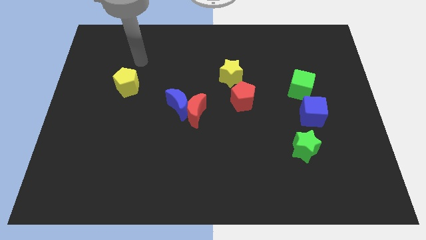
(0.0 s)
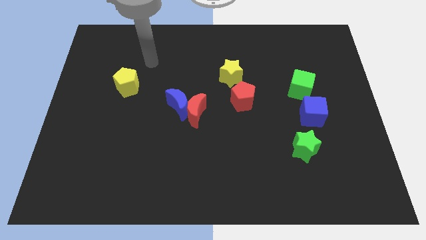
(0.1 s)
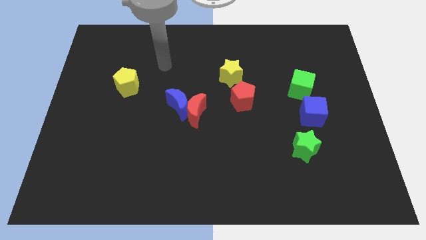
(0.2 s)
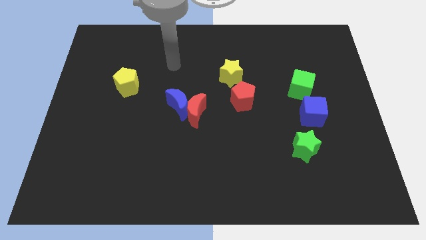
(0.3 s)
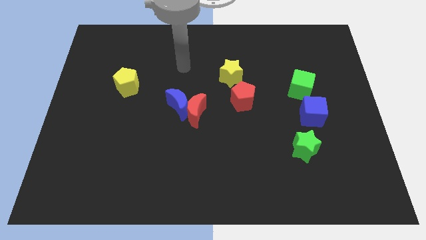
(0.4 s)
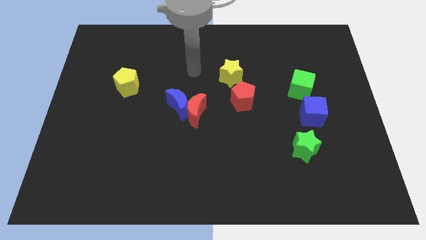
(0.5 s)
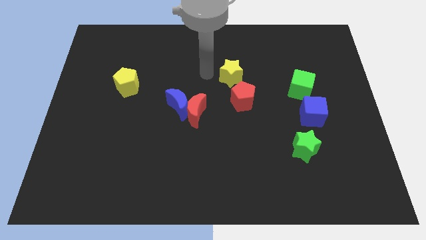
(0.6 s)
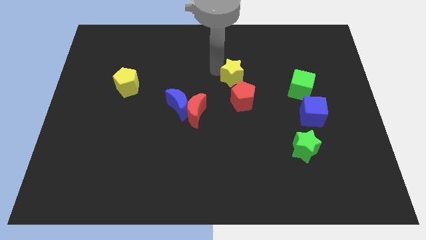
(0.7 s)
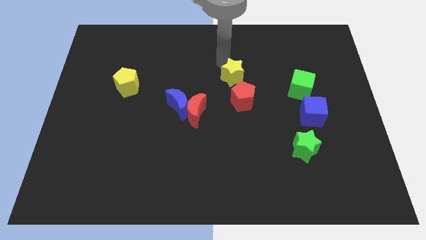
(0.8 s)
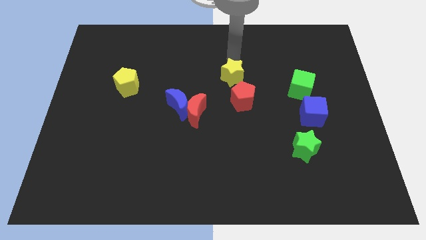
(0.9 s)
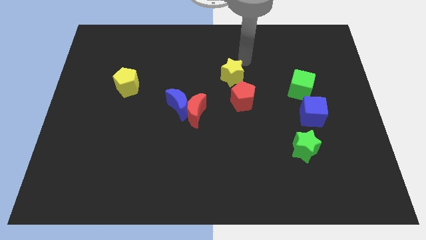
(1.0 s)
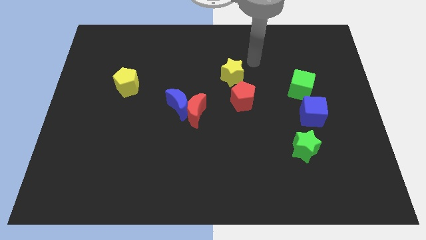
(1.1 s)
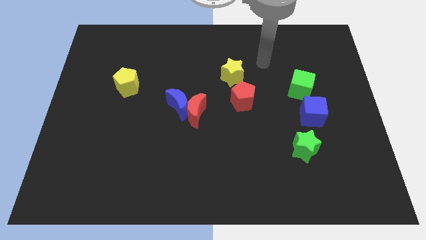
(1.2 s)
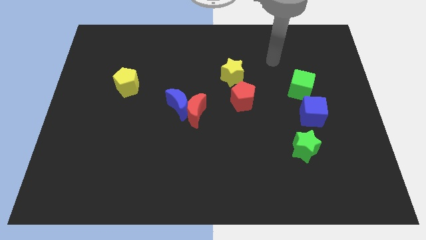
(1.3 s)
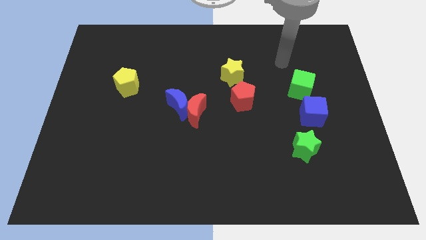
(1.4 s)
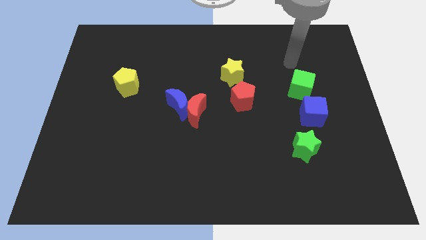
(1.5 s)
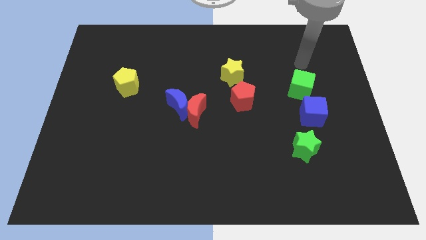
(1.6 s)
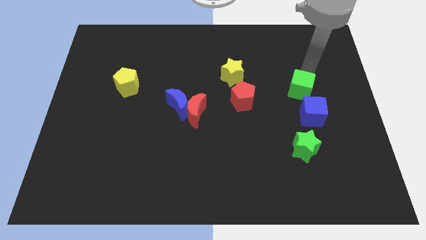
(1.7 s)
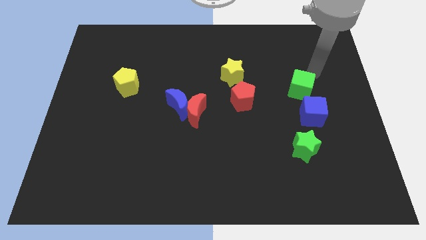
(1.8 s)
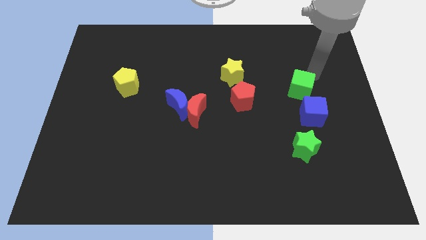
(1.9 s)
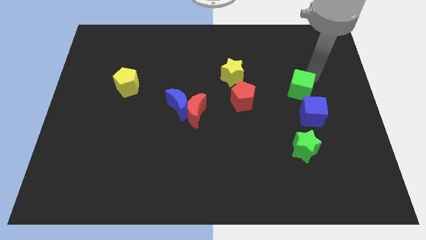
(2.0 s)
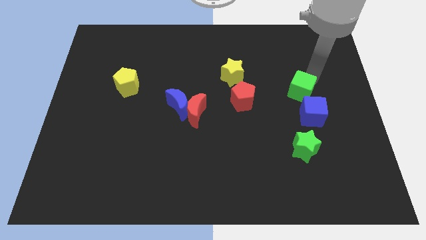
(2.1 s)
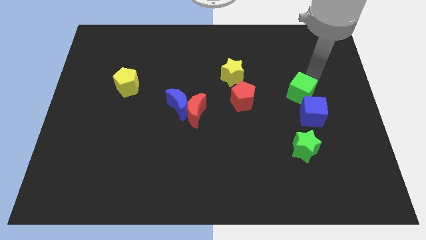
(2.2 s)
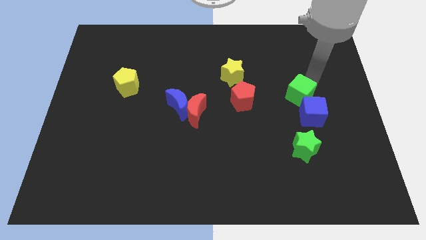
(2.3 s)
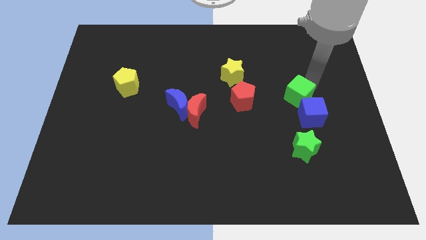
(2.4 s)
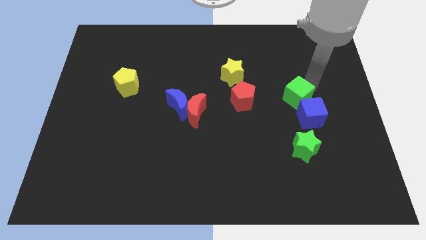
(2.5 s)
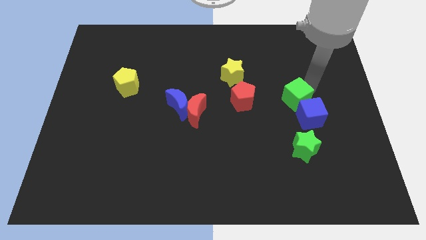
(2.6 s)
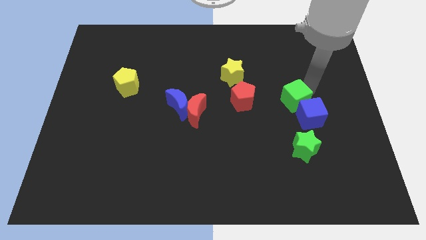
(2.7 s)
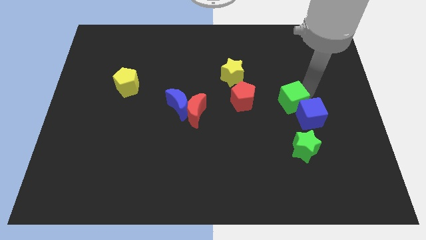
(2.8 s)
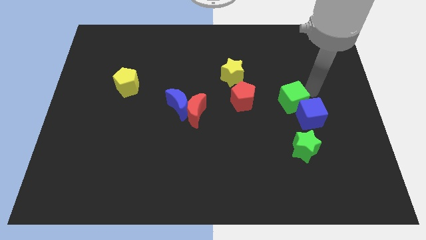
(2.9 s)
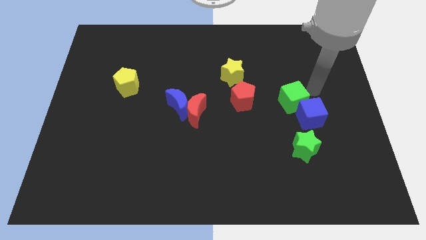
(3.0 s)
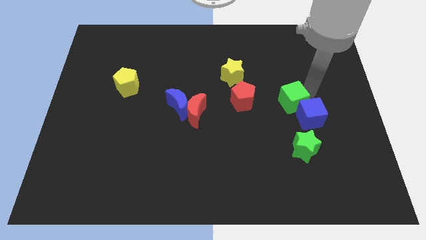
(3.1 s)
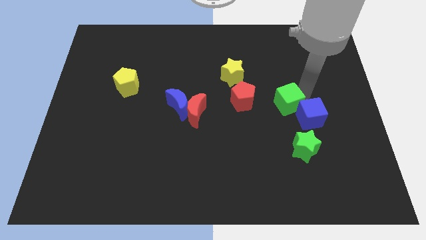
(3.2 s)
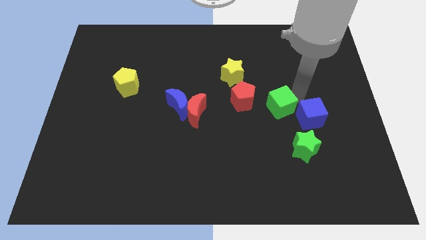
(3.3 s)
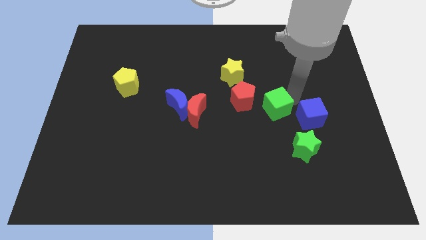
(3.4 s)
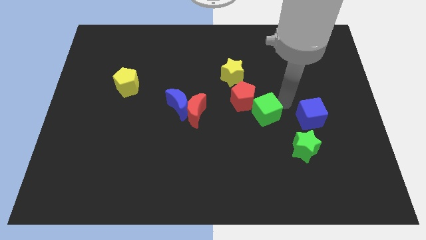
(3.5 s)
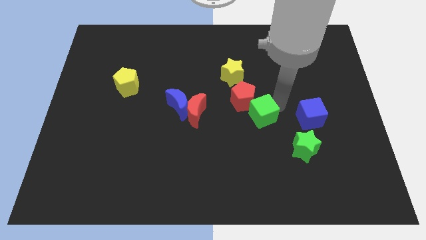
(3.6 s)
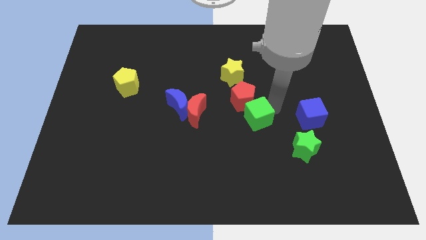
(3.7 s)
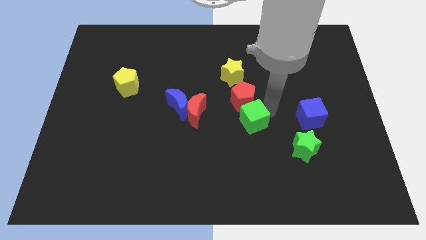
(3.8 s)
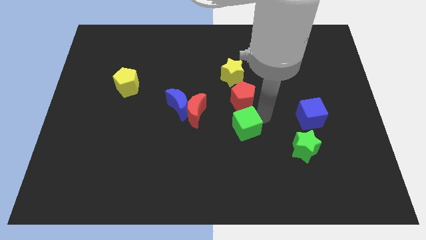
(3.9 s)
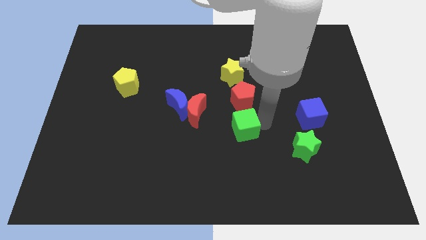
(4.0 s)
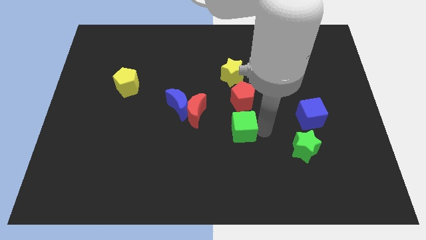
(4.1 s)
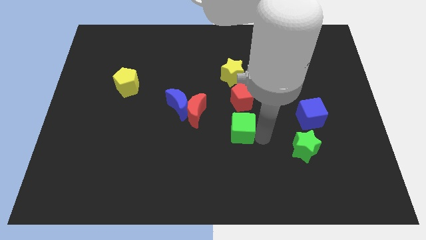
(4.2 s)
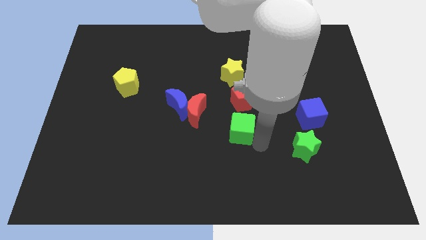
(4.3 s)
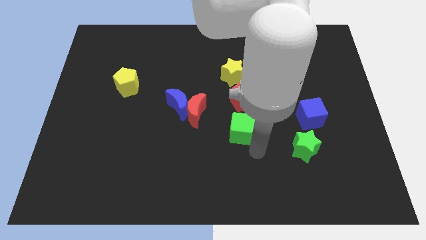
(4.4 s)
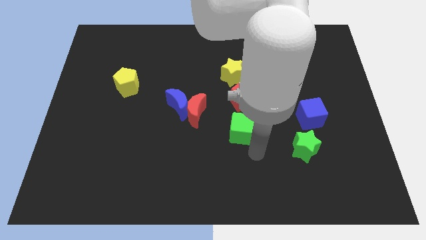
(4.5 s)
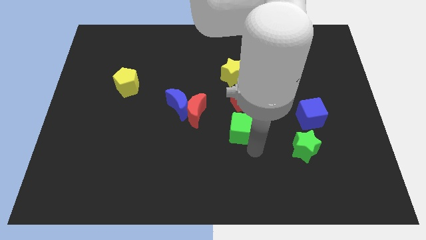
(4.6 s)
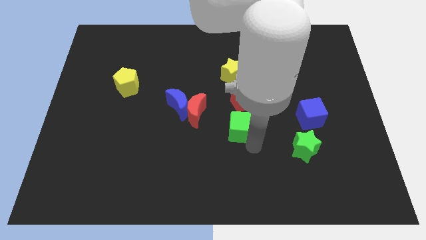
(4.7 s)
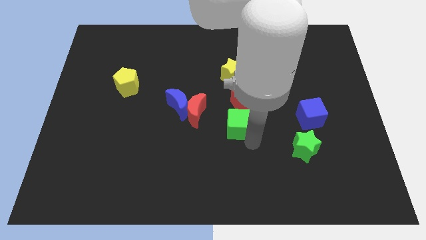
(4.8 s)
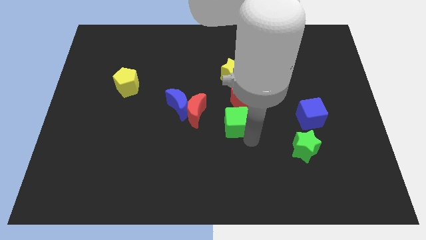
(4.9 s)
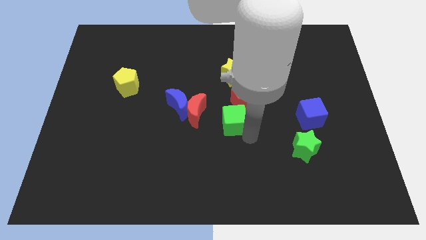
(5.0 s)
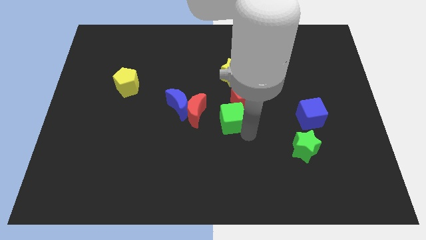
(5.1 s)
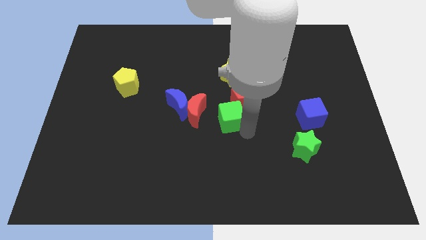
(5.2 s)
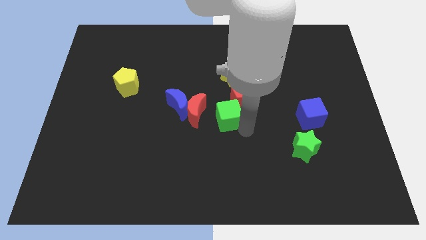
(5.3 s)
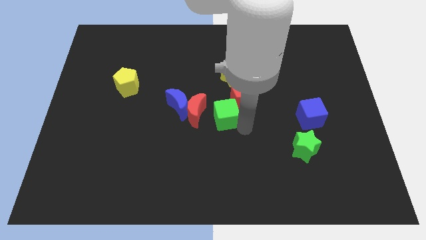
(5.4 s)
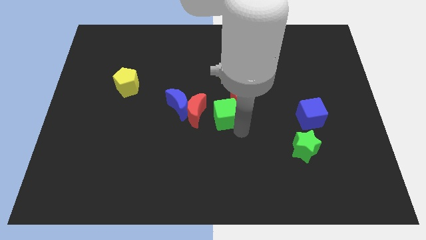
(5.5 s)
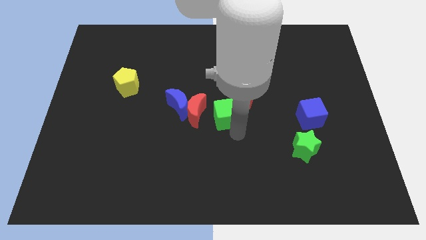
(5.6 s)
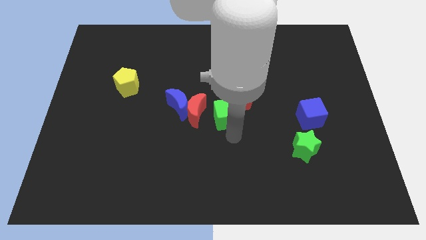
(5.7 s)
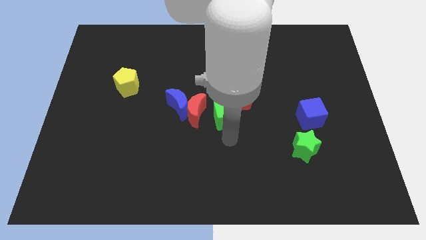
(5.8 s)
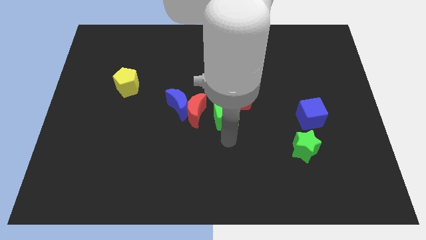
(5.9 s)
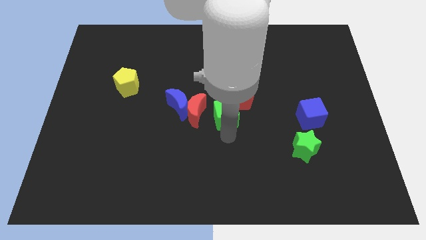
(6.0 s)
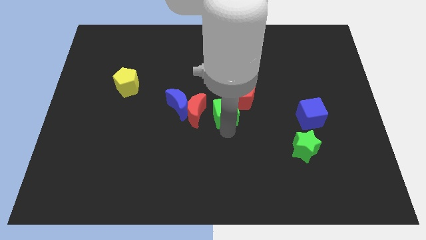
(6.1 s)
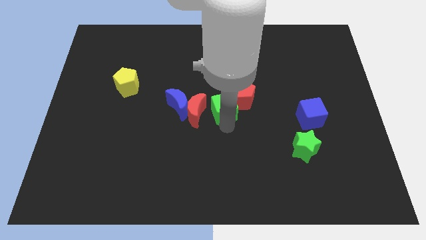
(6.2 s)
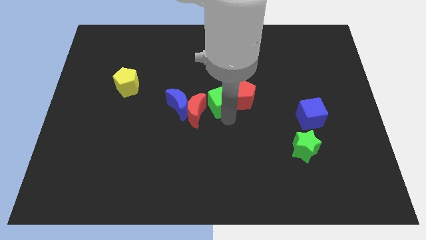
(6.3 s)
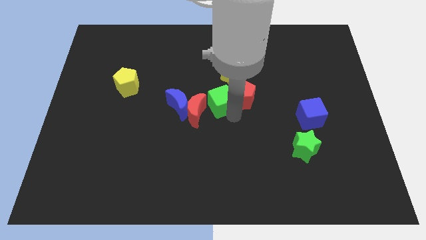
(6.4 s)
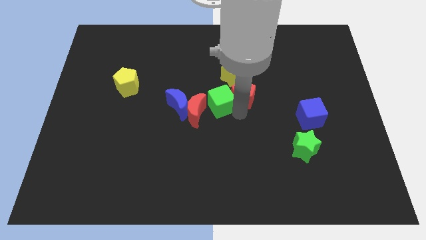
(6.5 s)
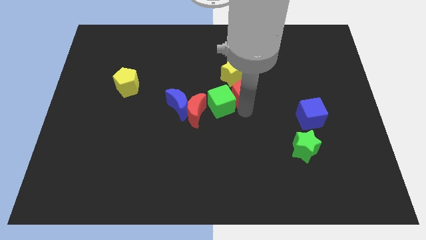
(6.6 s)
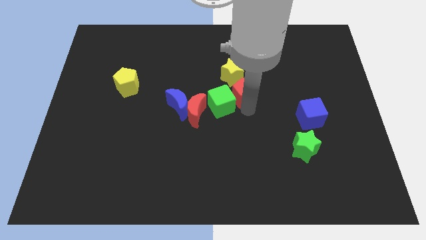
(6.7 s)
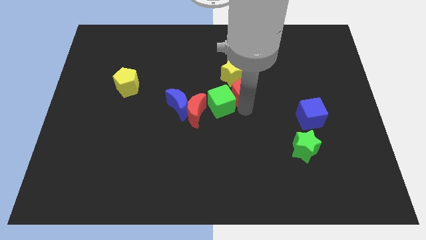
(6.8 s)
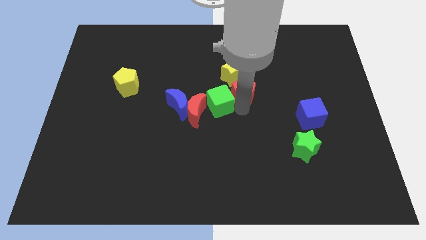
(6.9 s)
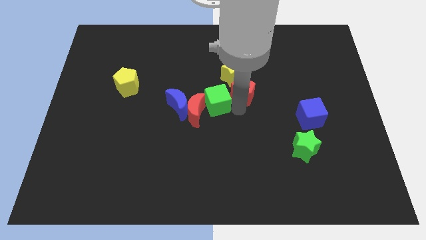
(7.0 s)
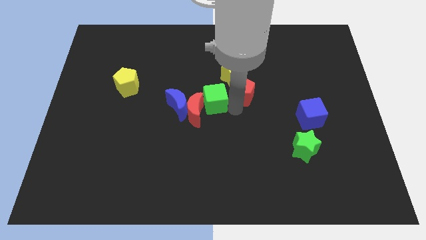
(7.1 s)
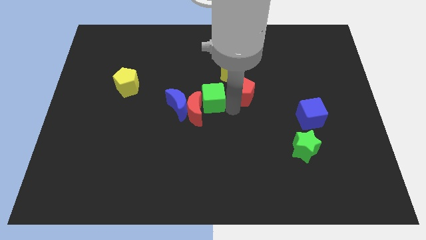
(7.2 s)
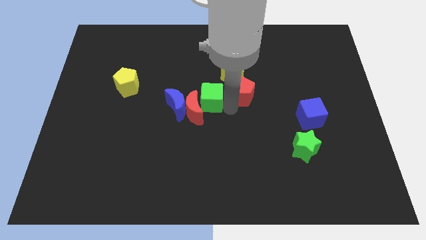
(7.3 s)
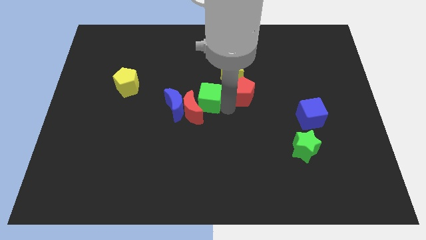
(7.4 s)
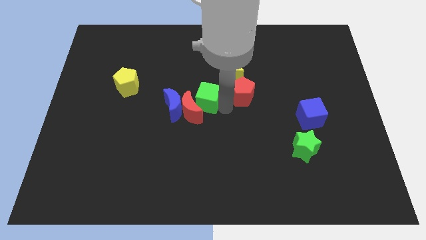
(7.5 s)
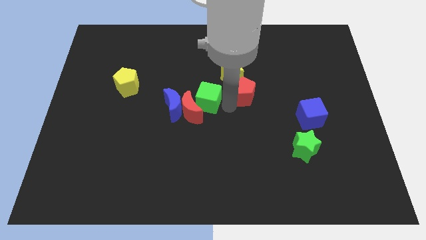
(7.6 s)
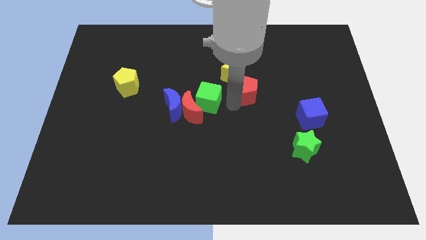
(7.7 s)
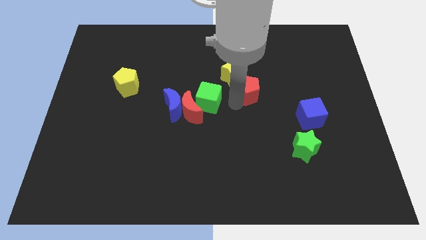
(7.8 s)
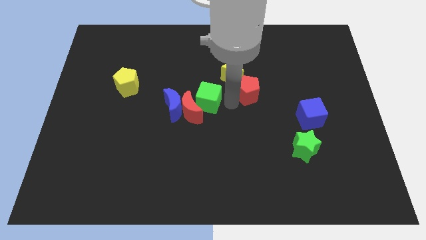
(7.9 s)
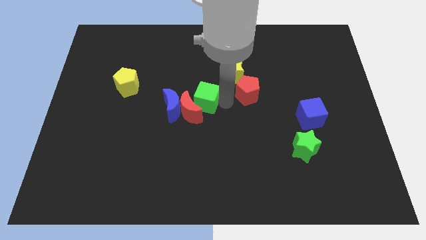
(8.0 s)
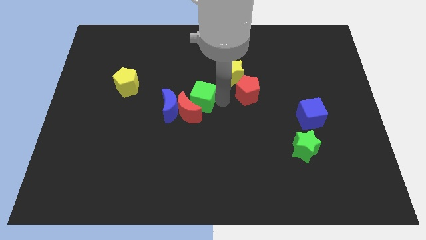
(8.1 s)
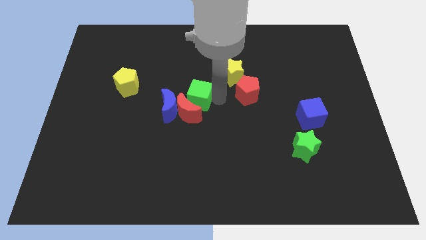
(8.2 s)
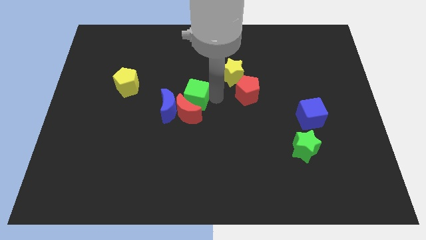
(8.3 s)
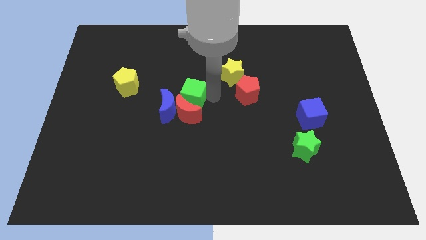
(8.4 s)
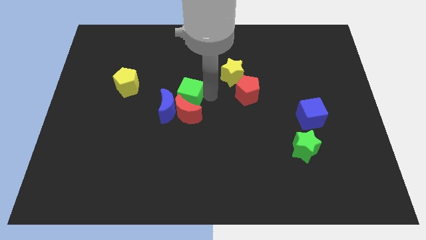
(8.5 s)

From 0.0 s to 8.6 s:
push the green cube to the blue moon
